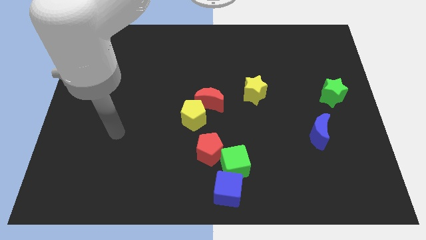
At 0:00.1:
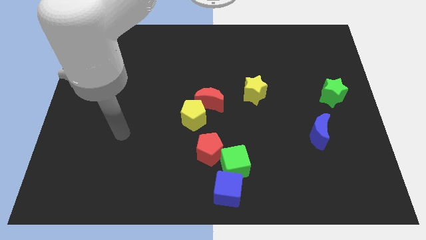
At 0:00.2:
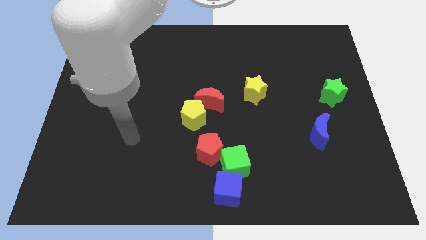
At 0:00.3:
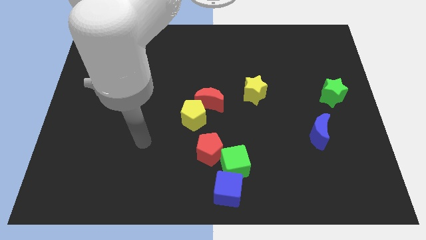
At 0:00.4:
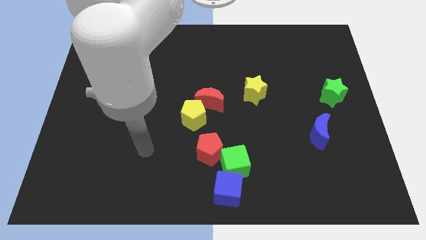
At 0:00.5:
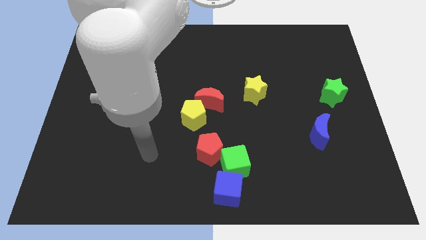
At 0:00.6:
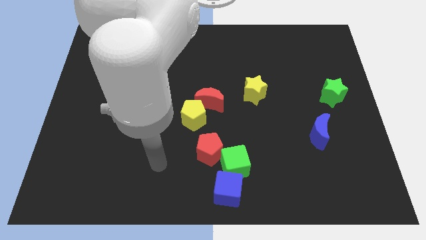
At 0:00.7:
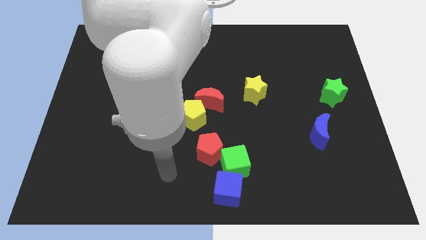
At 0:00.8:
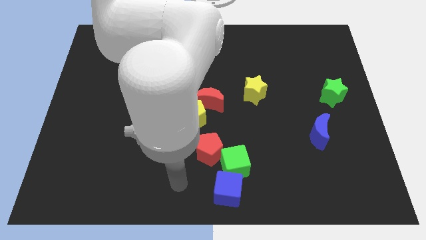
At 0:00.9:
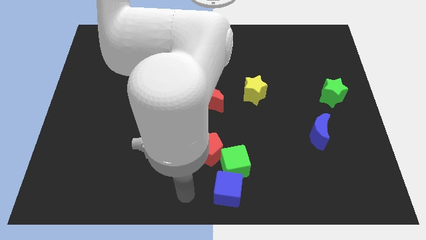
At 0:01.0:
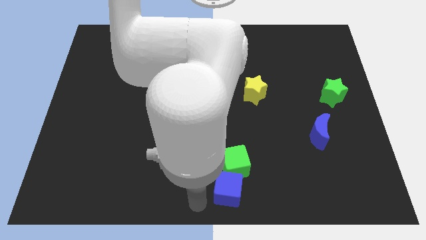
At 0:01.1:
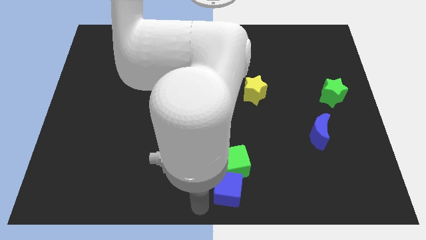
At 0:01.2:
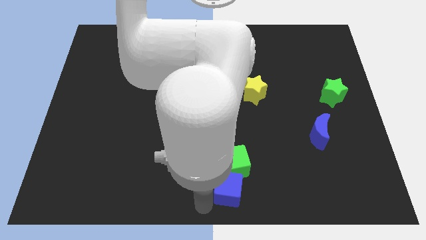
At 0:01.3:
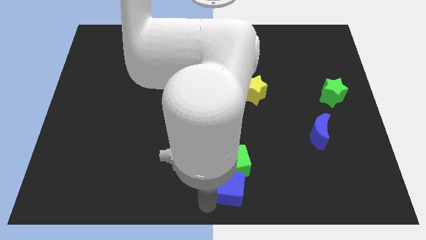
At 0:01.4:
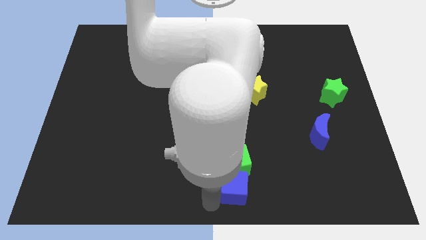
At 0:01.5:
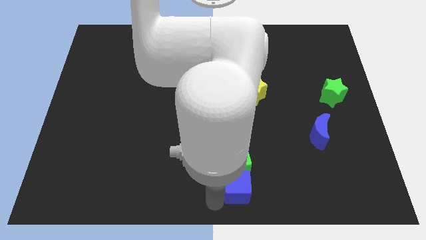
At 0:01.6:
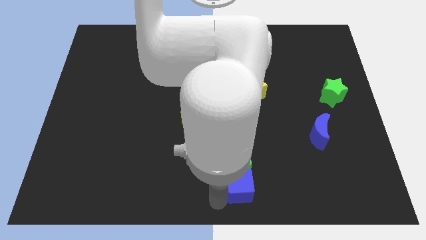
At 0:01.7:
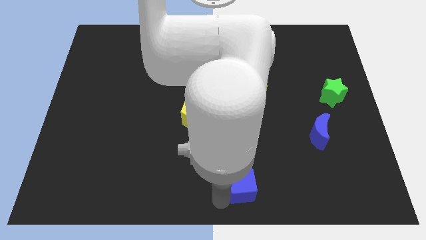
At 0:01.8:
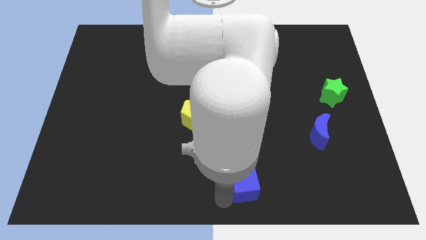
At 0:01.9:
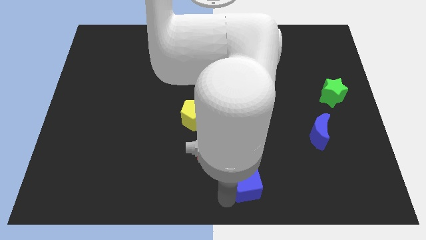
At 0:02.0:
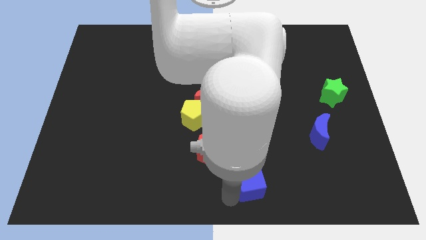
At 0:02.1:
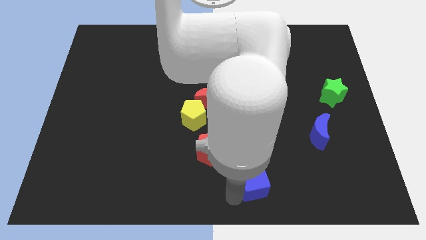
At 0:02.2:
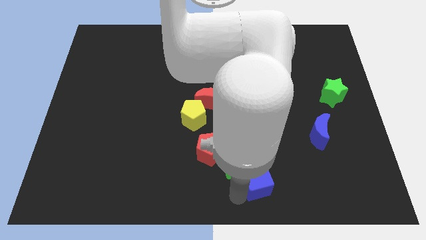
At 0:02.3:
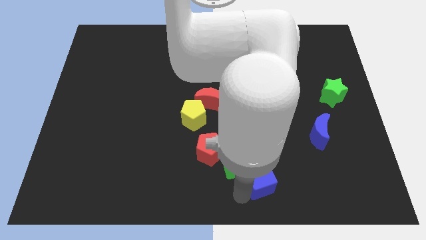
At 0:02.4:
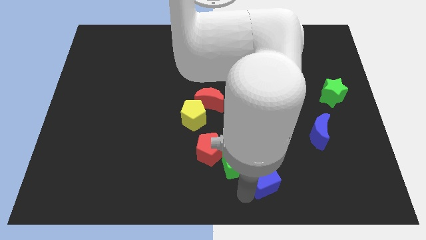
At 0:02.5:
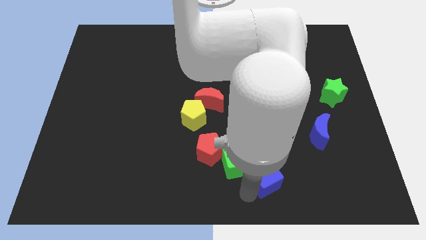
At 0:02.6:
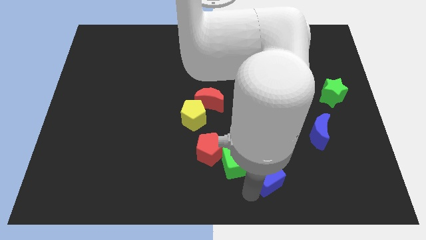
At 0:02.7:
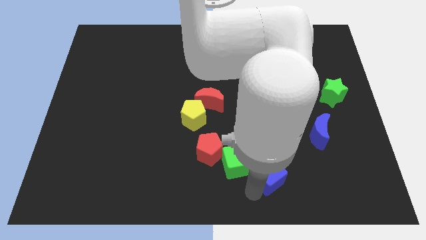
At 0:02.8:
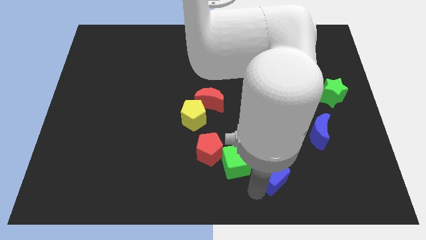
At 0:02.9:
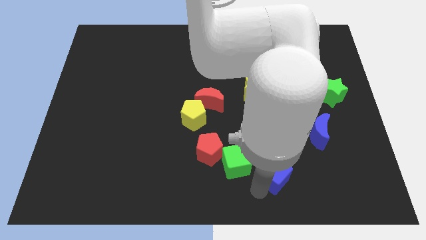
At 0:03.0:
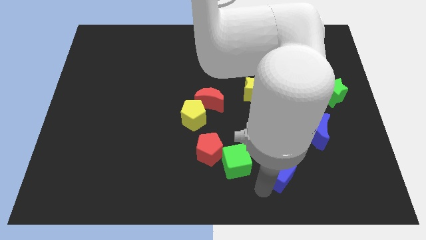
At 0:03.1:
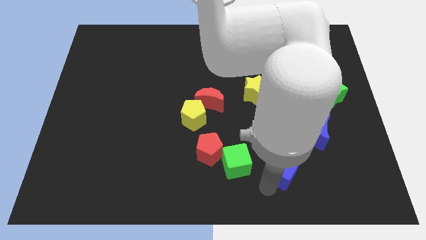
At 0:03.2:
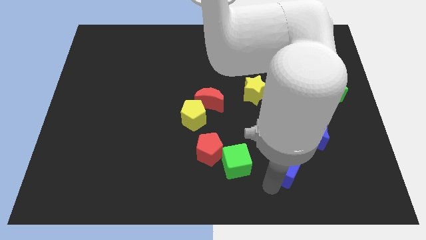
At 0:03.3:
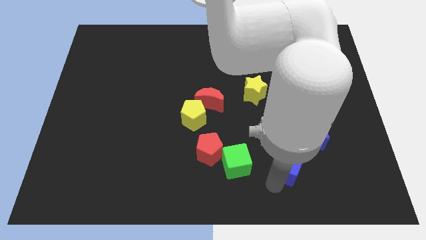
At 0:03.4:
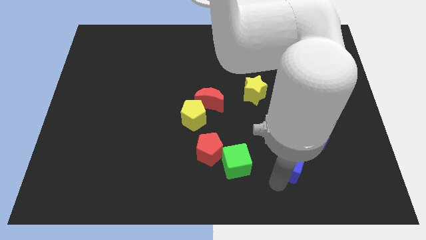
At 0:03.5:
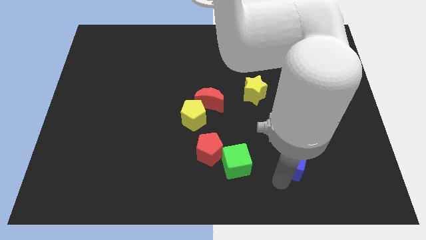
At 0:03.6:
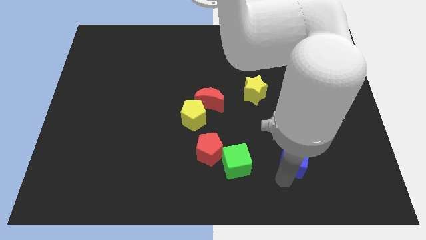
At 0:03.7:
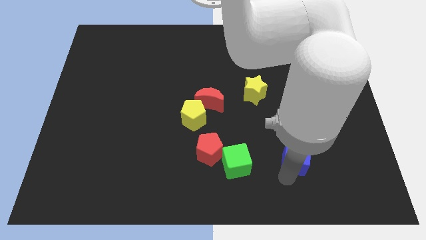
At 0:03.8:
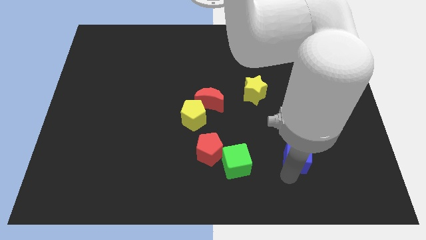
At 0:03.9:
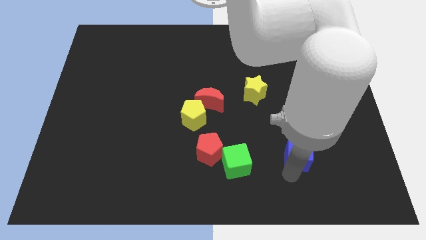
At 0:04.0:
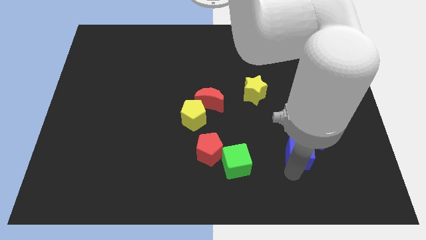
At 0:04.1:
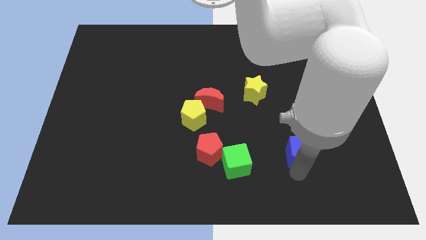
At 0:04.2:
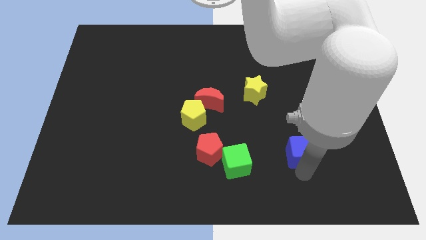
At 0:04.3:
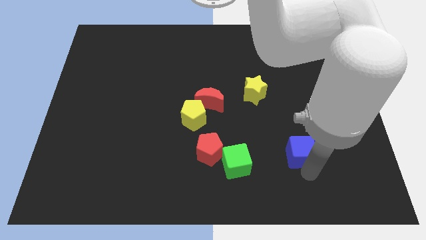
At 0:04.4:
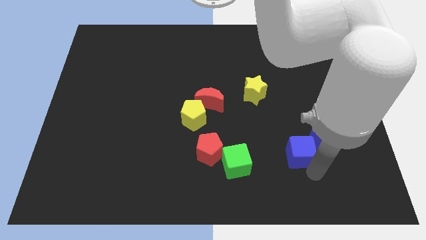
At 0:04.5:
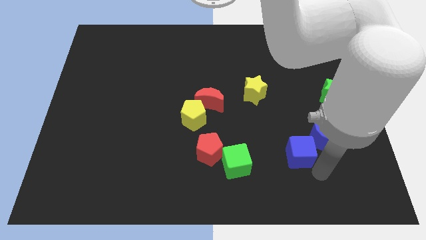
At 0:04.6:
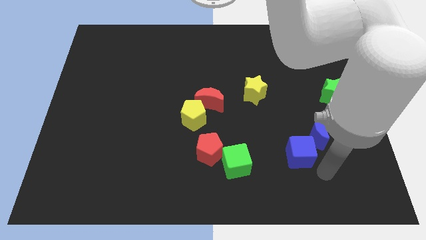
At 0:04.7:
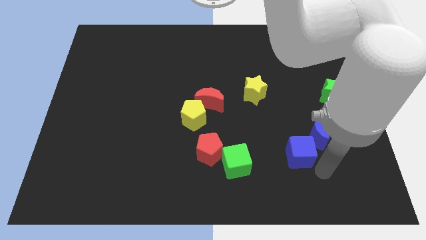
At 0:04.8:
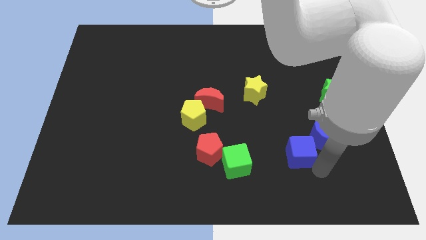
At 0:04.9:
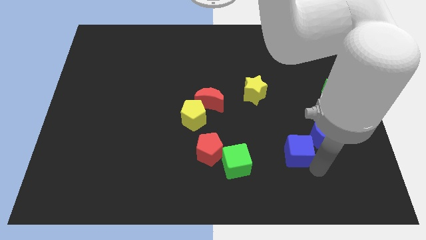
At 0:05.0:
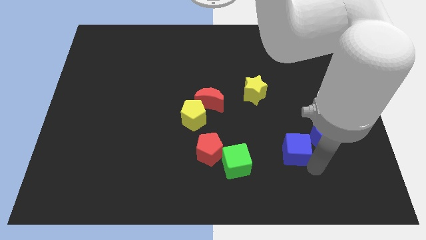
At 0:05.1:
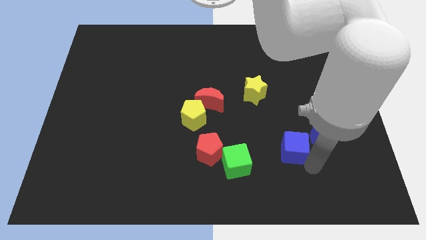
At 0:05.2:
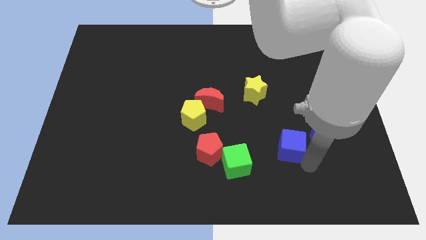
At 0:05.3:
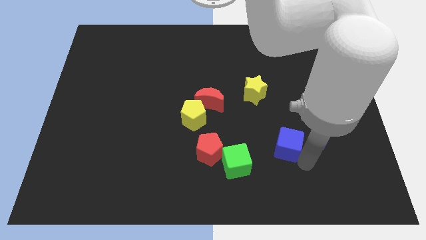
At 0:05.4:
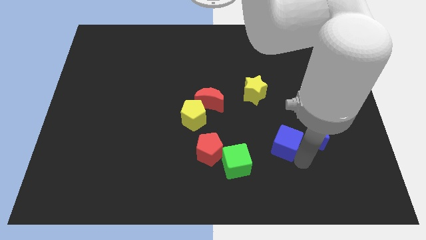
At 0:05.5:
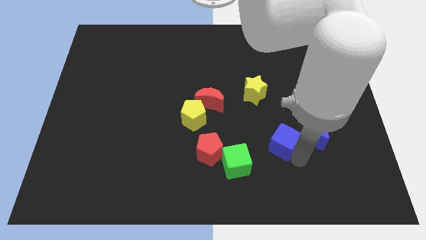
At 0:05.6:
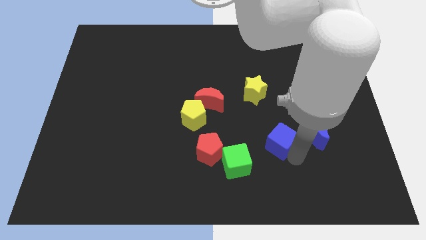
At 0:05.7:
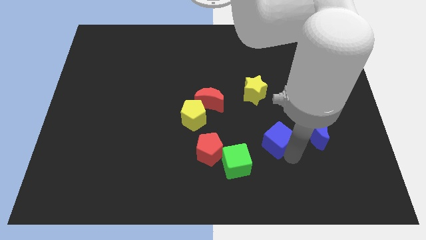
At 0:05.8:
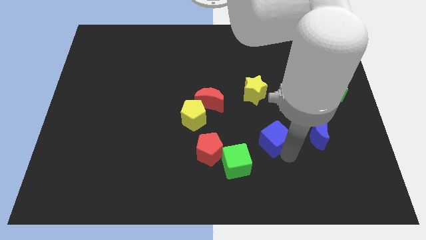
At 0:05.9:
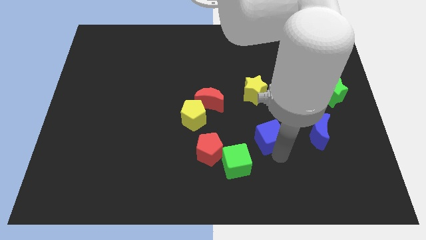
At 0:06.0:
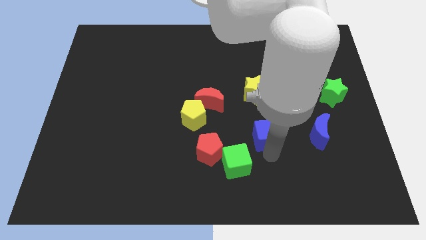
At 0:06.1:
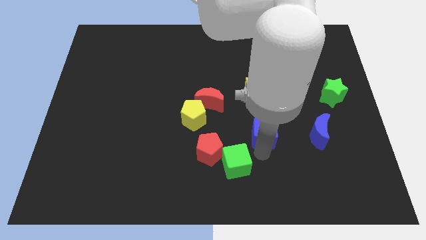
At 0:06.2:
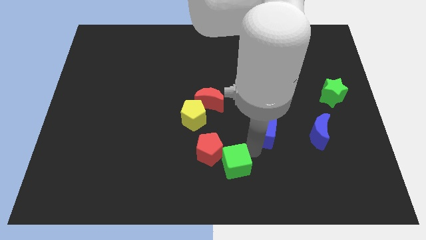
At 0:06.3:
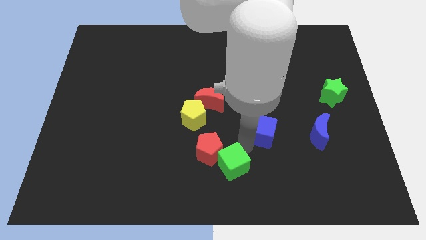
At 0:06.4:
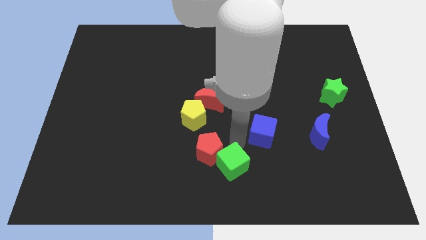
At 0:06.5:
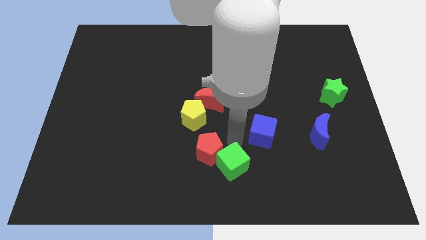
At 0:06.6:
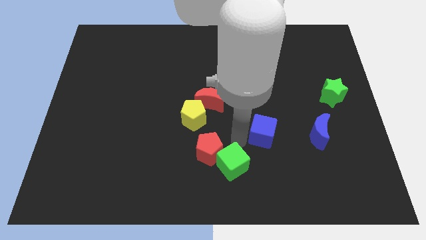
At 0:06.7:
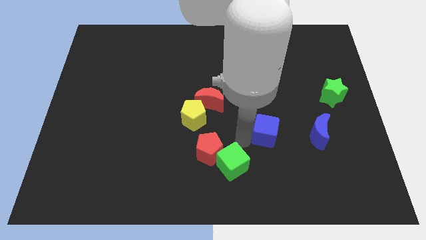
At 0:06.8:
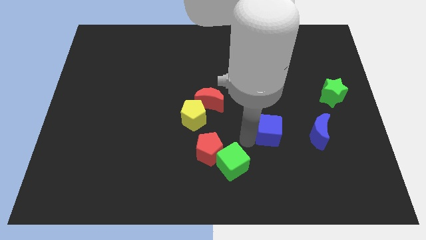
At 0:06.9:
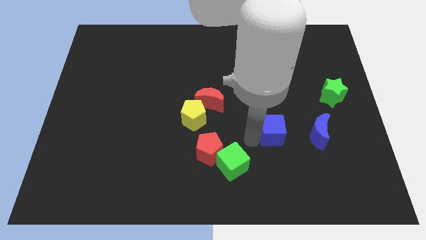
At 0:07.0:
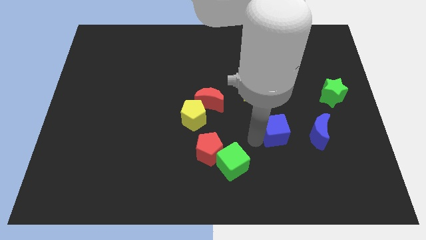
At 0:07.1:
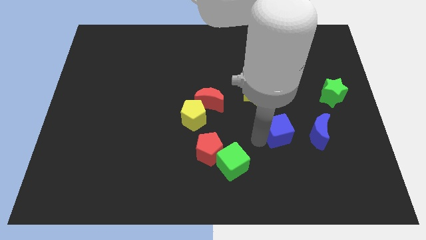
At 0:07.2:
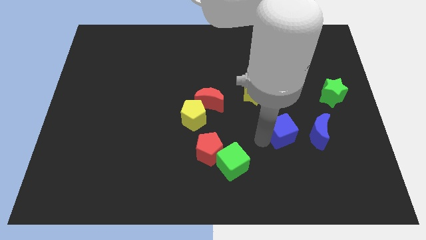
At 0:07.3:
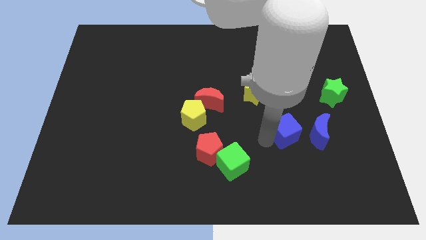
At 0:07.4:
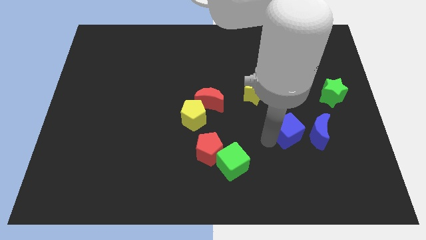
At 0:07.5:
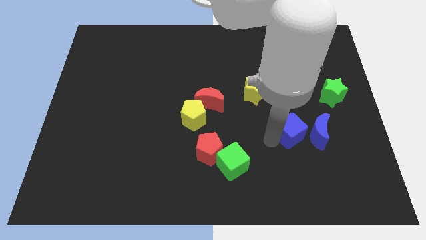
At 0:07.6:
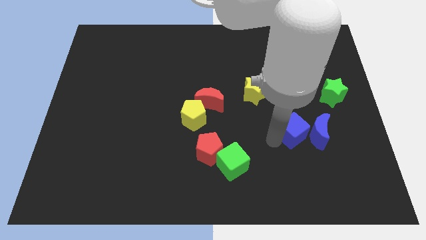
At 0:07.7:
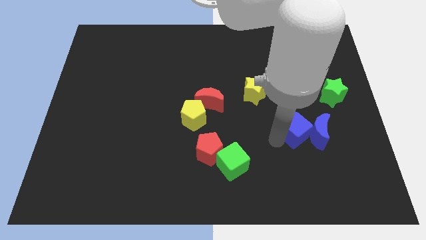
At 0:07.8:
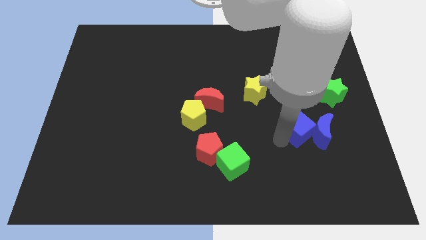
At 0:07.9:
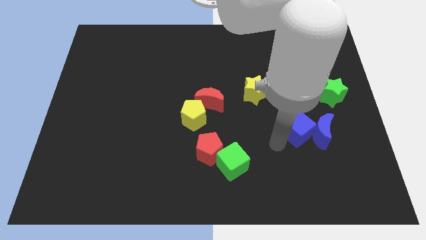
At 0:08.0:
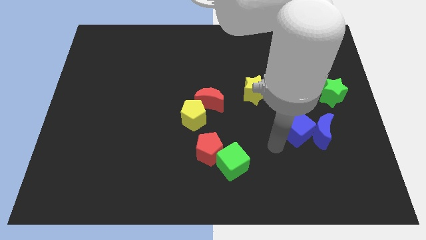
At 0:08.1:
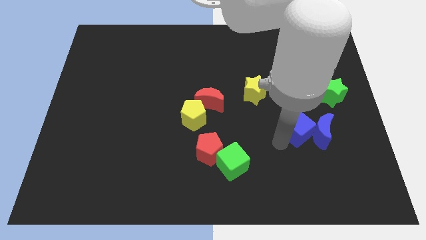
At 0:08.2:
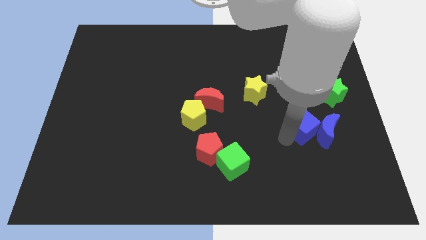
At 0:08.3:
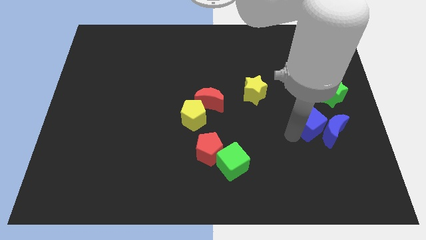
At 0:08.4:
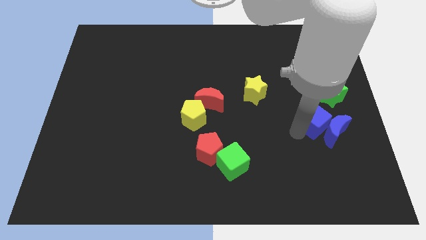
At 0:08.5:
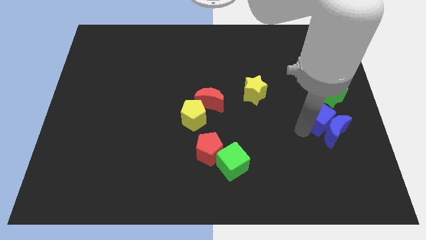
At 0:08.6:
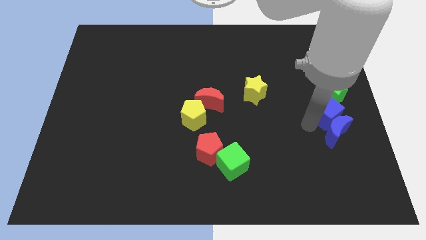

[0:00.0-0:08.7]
push the blue cube to the right side of the board
